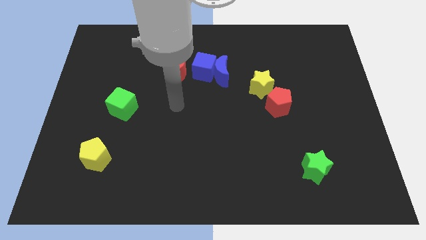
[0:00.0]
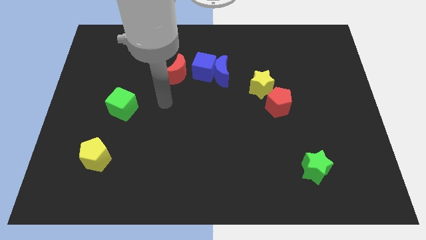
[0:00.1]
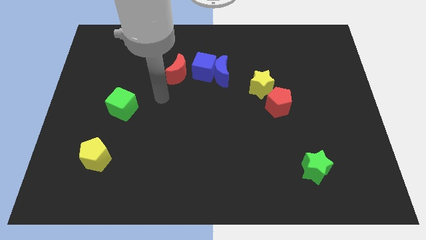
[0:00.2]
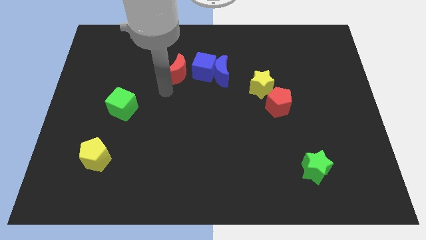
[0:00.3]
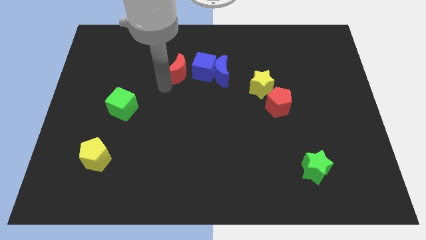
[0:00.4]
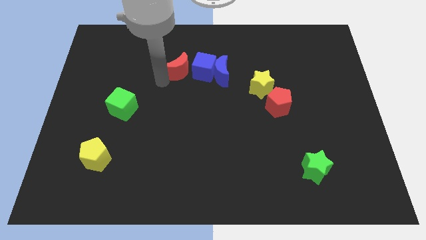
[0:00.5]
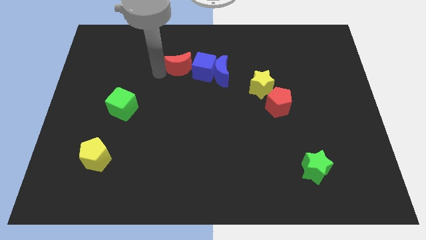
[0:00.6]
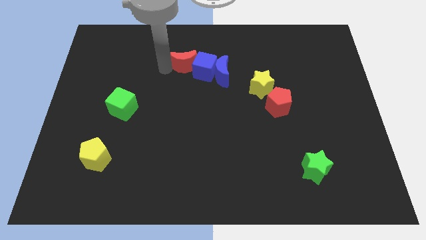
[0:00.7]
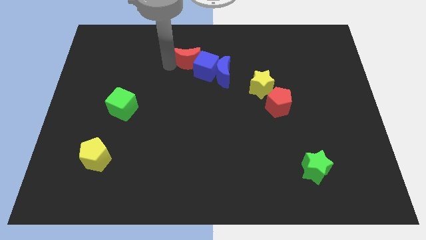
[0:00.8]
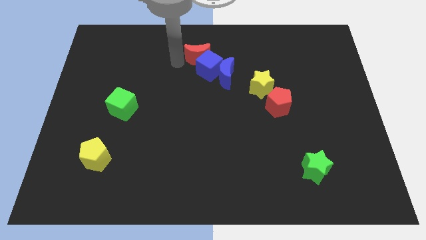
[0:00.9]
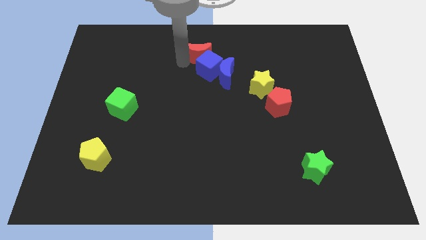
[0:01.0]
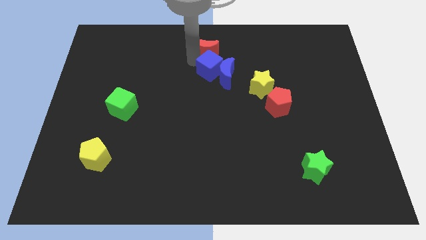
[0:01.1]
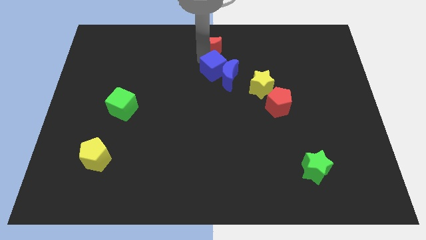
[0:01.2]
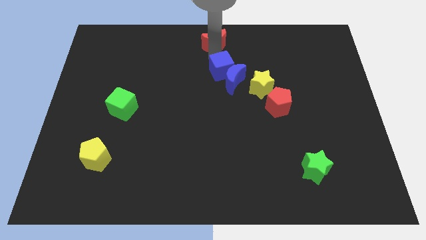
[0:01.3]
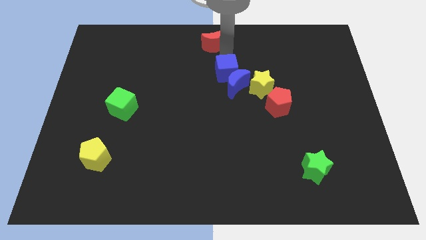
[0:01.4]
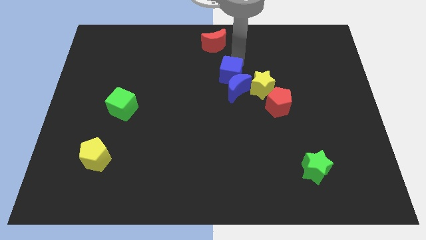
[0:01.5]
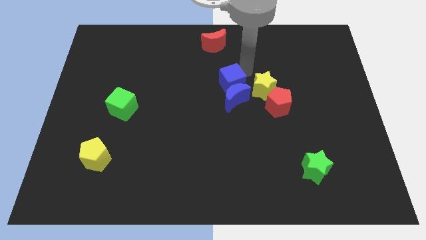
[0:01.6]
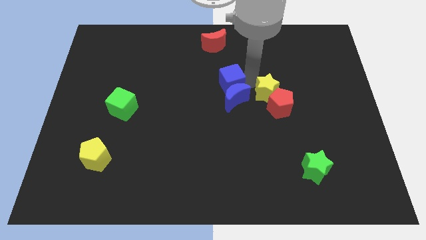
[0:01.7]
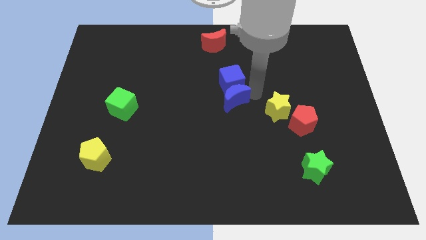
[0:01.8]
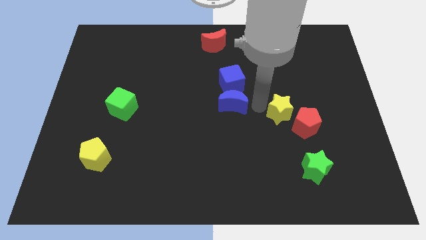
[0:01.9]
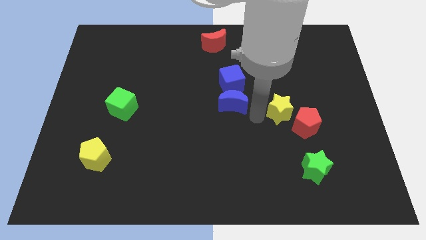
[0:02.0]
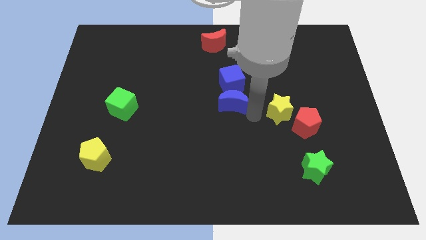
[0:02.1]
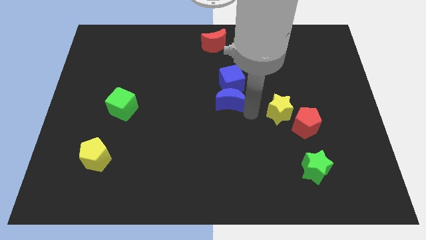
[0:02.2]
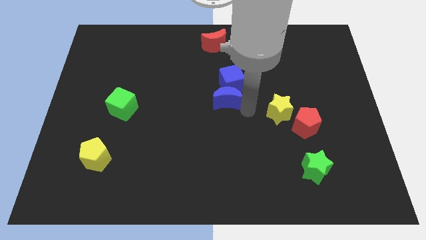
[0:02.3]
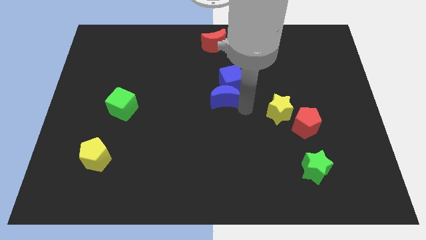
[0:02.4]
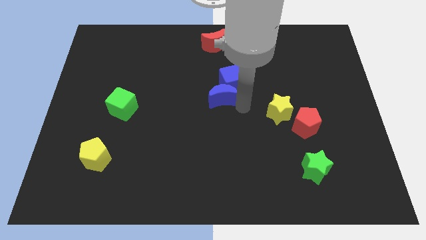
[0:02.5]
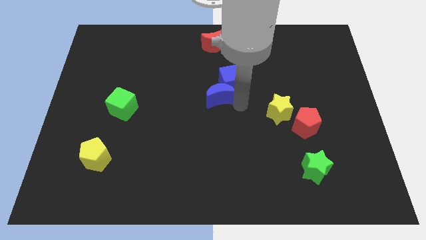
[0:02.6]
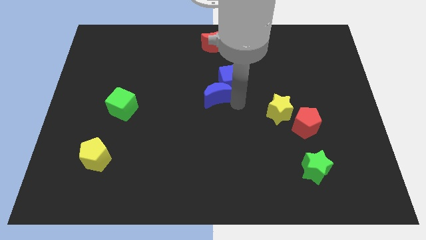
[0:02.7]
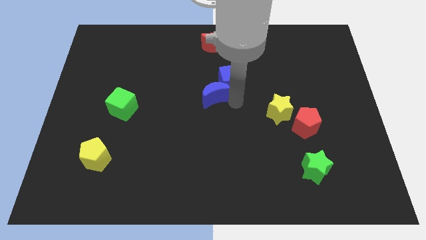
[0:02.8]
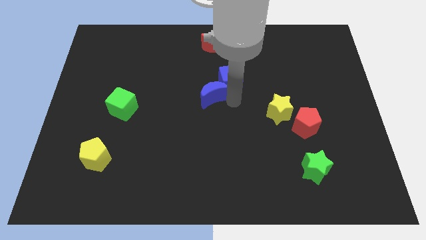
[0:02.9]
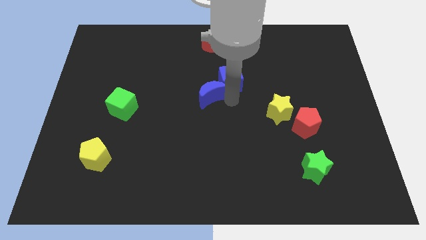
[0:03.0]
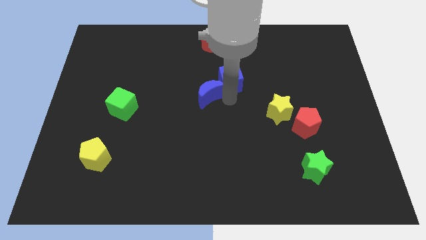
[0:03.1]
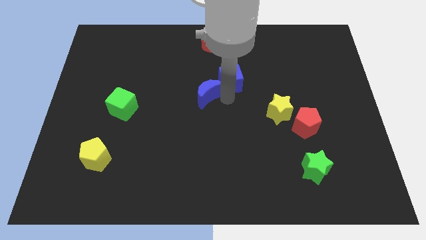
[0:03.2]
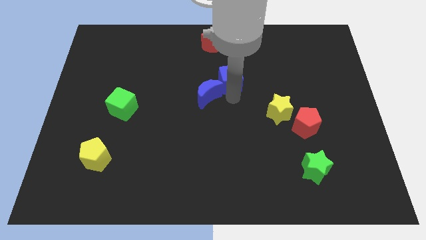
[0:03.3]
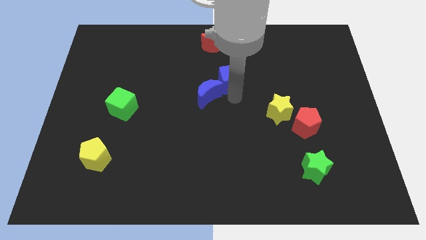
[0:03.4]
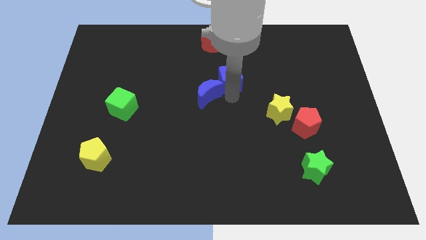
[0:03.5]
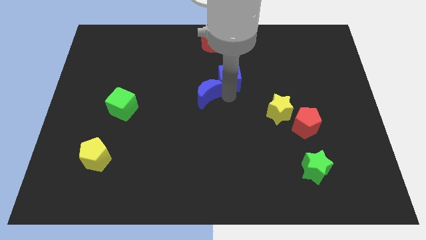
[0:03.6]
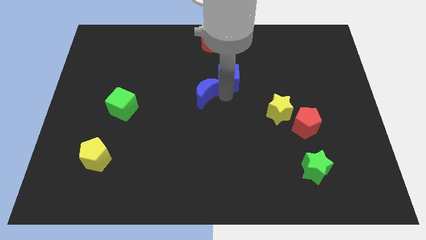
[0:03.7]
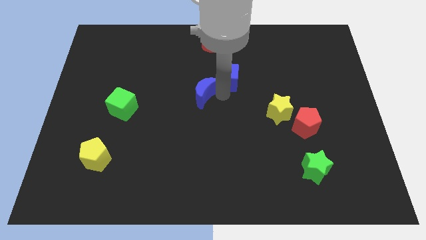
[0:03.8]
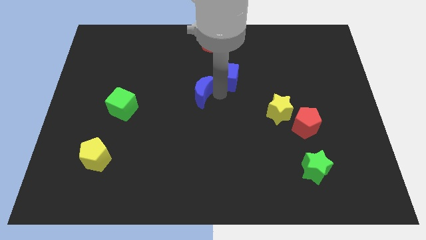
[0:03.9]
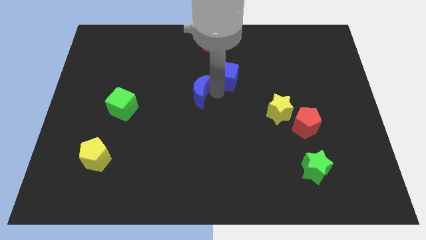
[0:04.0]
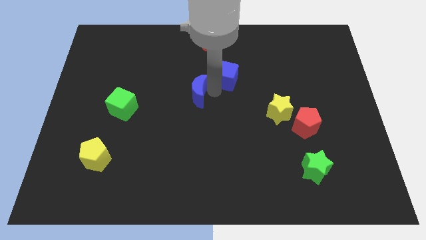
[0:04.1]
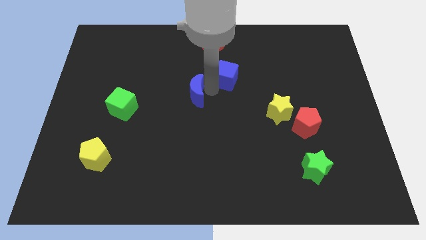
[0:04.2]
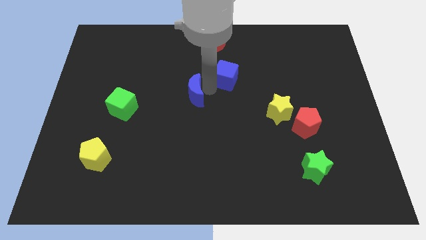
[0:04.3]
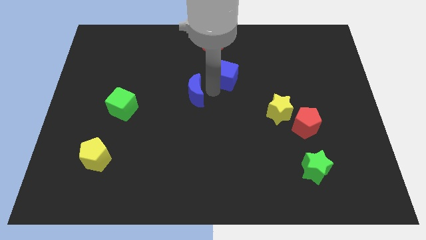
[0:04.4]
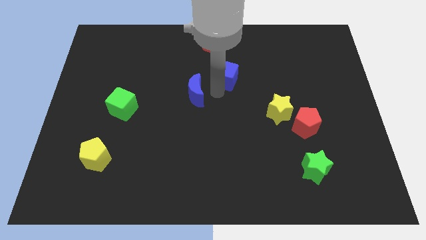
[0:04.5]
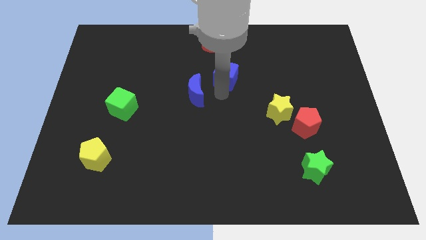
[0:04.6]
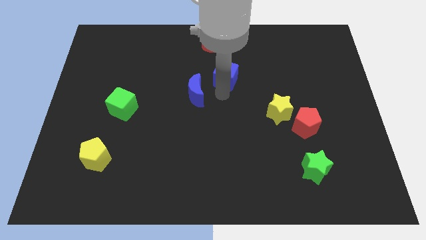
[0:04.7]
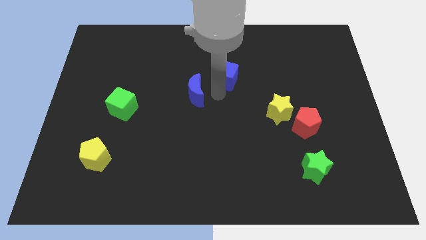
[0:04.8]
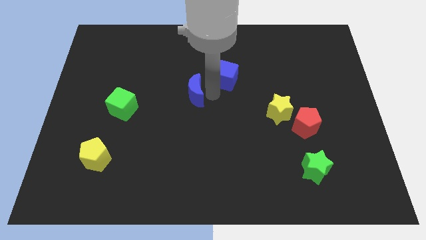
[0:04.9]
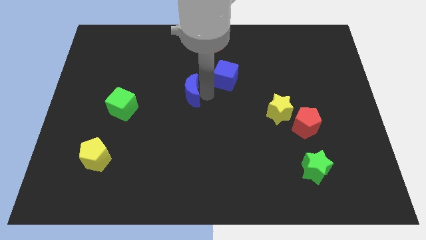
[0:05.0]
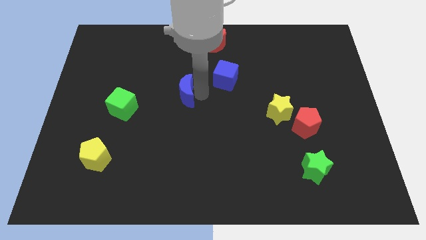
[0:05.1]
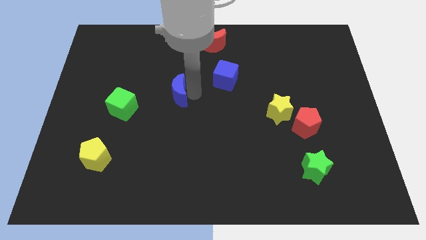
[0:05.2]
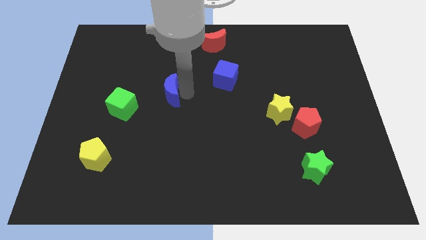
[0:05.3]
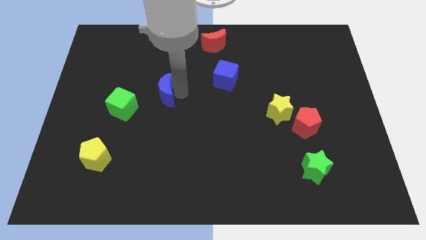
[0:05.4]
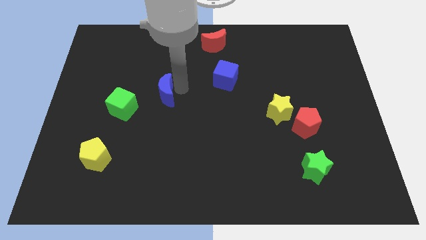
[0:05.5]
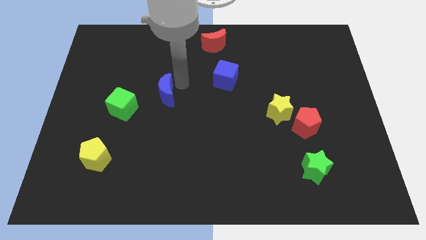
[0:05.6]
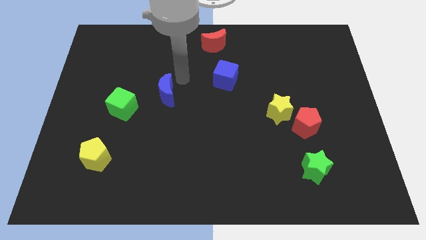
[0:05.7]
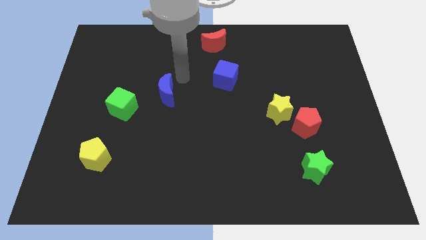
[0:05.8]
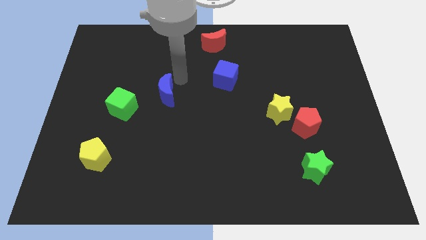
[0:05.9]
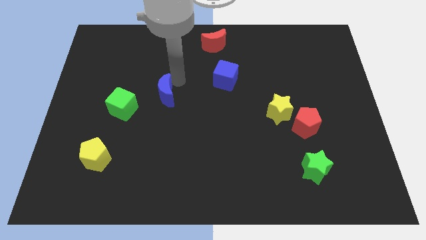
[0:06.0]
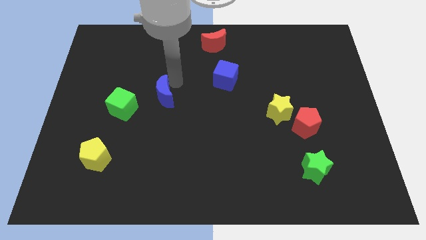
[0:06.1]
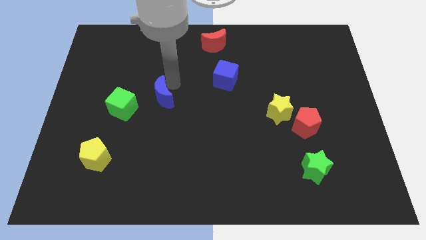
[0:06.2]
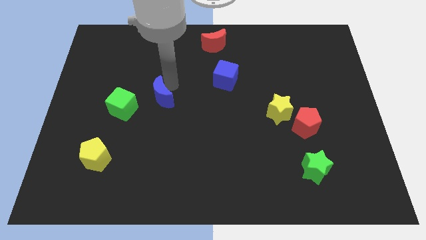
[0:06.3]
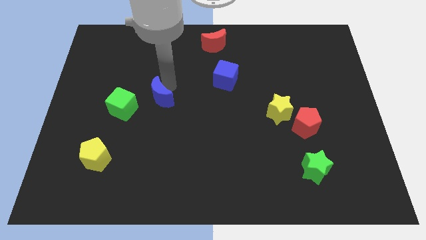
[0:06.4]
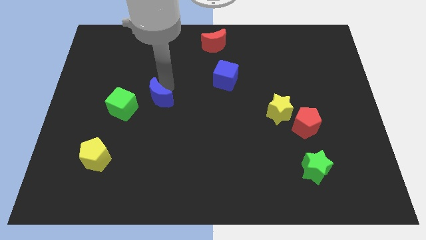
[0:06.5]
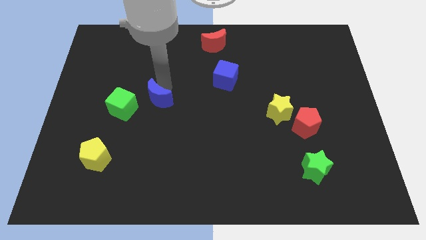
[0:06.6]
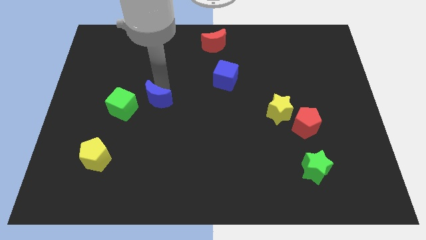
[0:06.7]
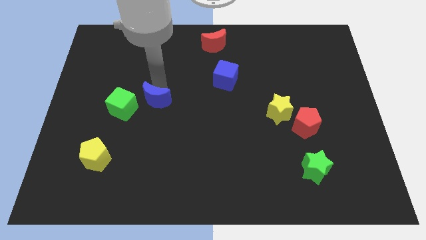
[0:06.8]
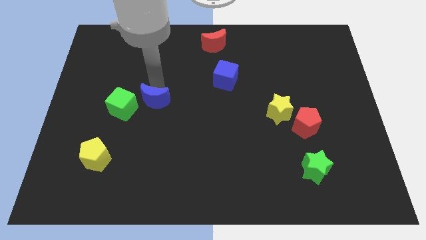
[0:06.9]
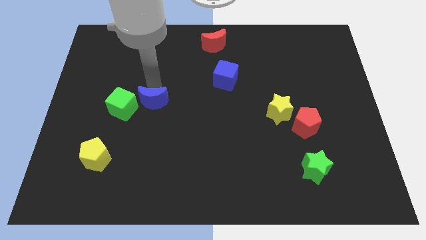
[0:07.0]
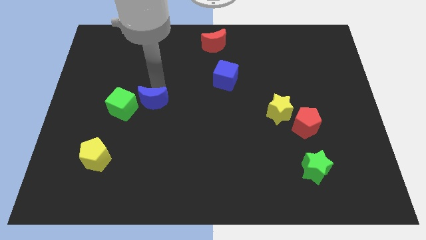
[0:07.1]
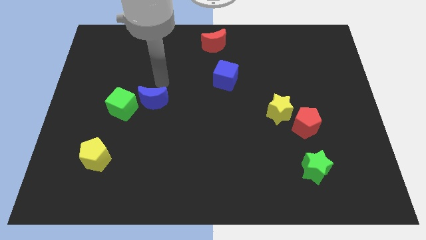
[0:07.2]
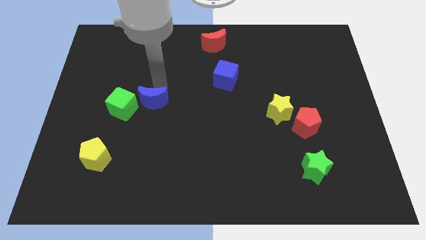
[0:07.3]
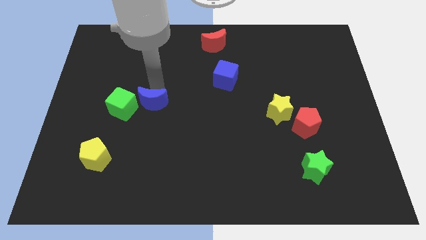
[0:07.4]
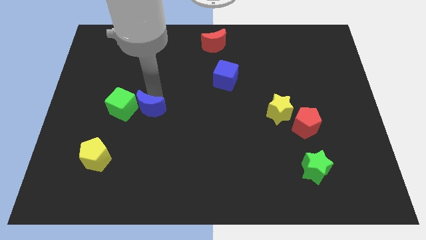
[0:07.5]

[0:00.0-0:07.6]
push the blue moon diagonally down and to the right of the green cube

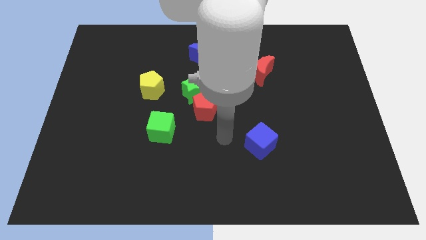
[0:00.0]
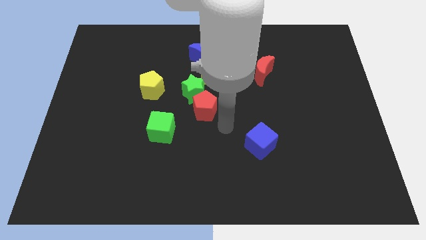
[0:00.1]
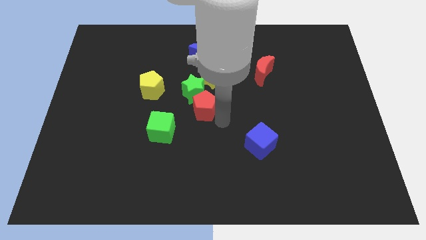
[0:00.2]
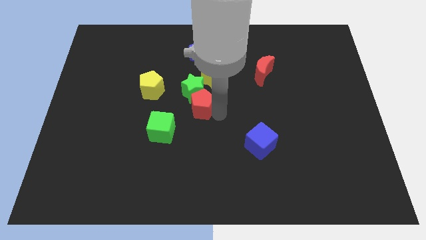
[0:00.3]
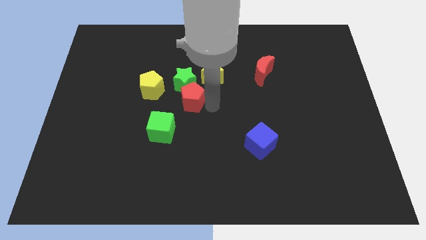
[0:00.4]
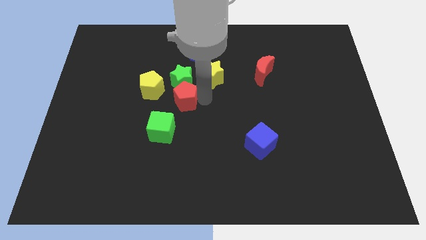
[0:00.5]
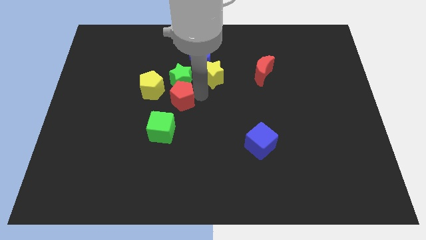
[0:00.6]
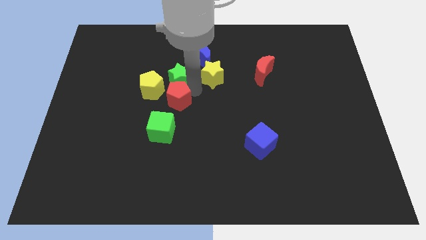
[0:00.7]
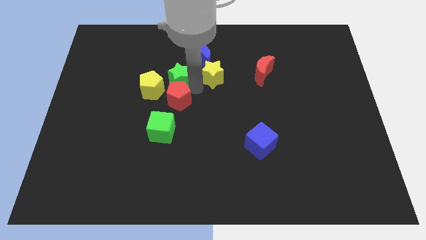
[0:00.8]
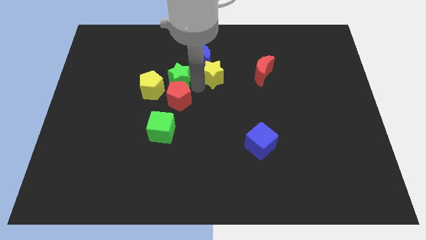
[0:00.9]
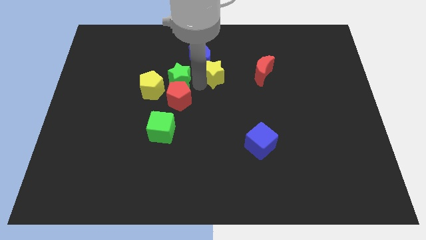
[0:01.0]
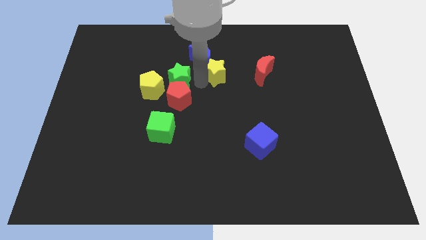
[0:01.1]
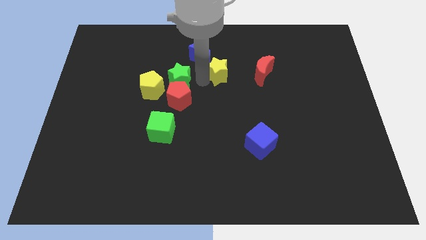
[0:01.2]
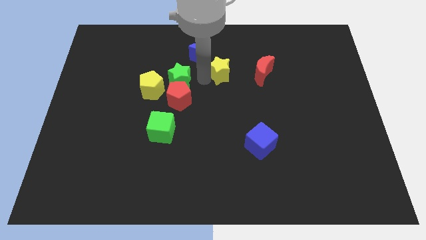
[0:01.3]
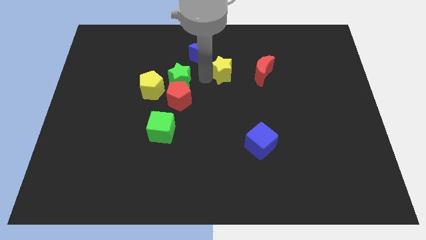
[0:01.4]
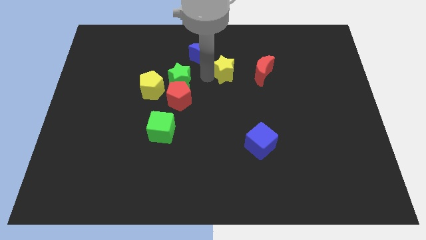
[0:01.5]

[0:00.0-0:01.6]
move the yellow star just right of the blue moon
